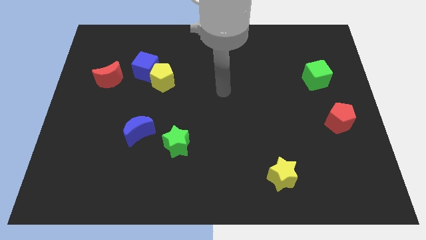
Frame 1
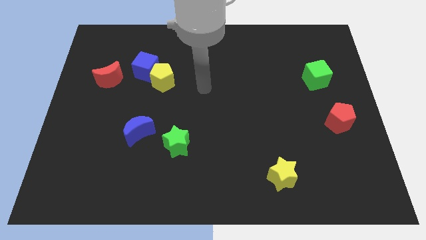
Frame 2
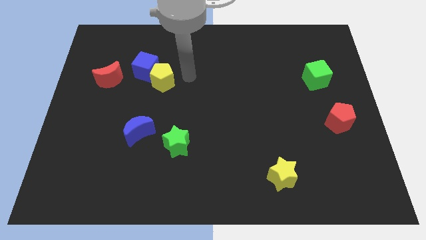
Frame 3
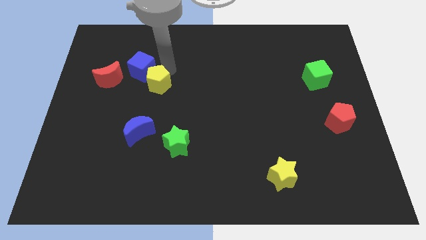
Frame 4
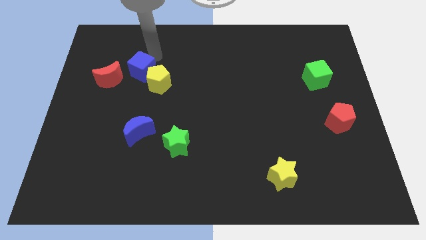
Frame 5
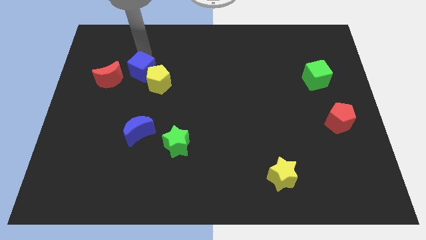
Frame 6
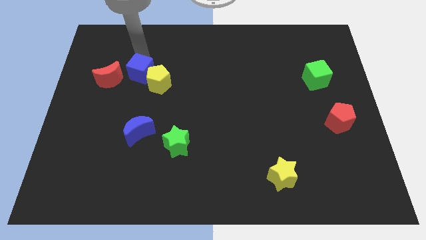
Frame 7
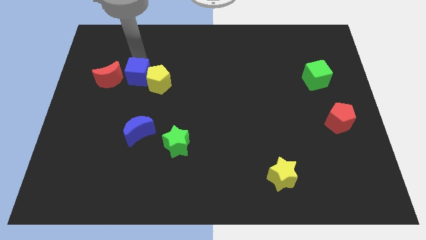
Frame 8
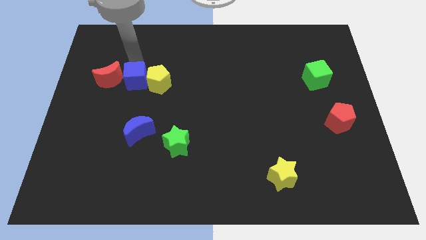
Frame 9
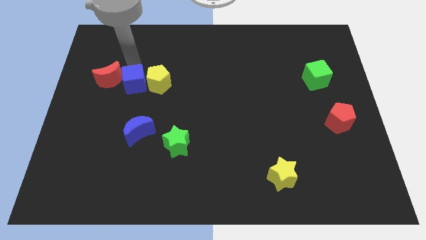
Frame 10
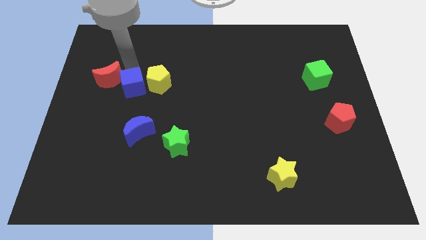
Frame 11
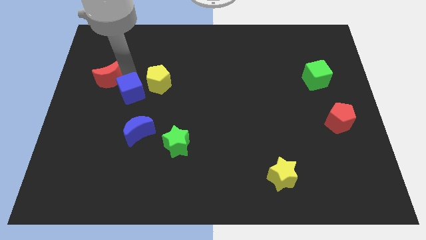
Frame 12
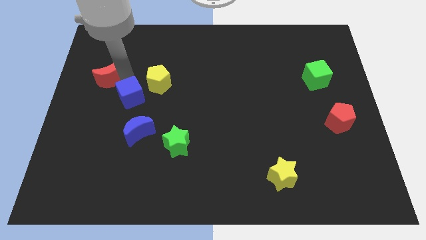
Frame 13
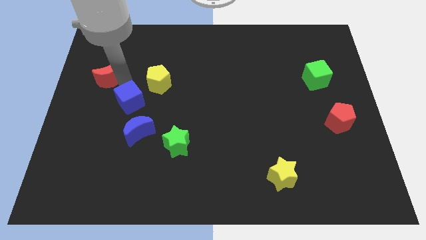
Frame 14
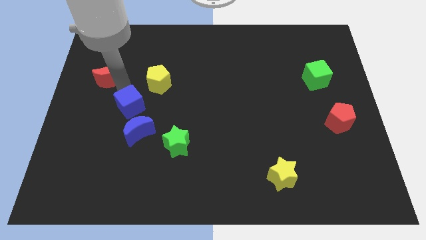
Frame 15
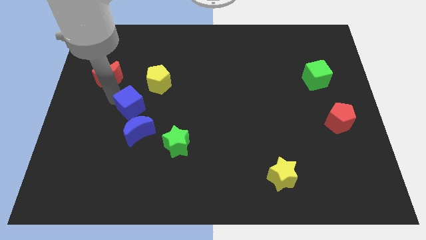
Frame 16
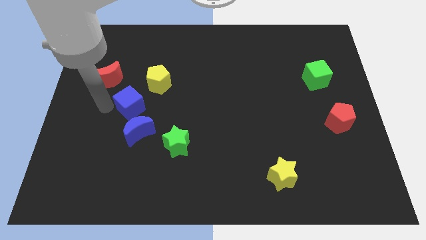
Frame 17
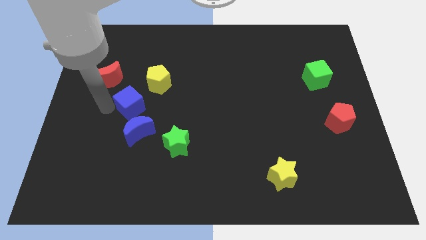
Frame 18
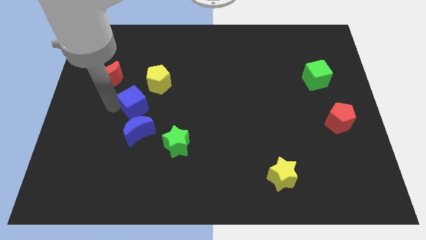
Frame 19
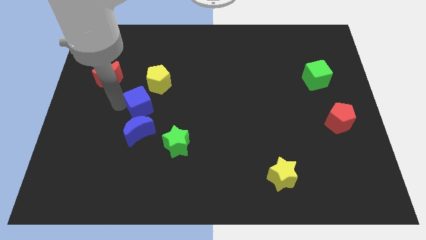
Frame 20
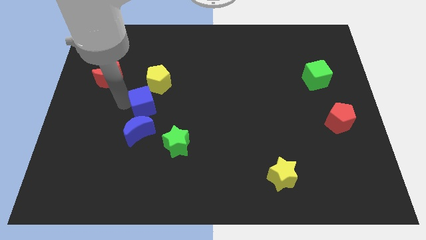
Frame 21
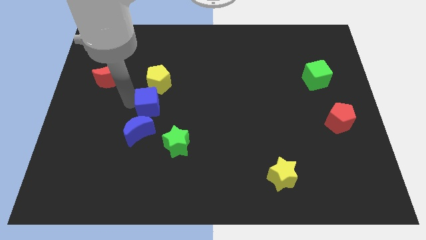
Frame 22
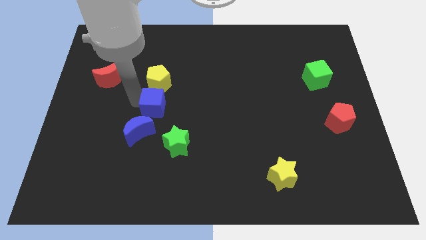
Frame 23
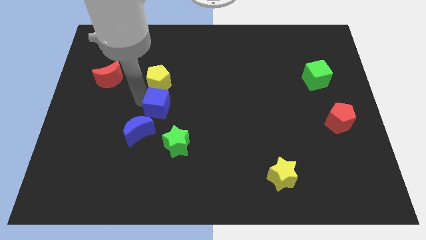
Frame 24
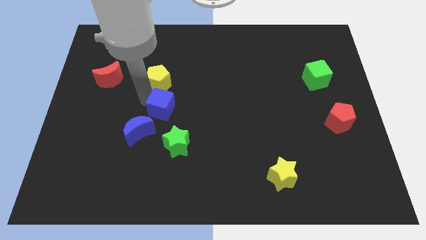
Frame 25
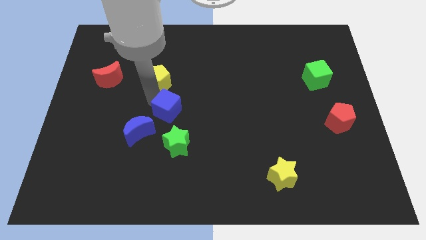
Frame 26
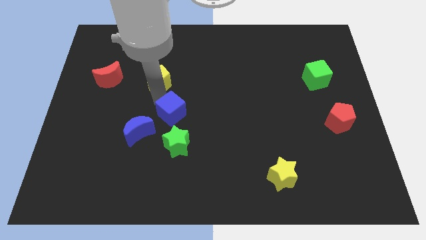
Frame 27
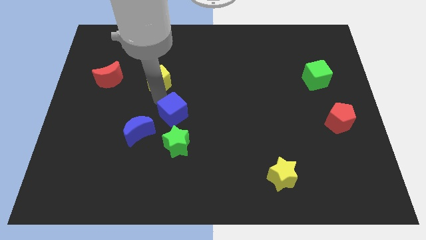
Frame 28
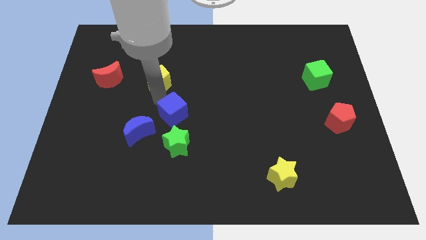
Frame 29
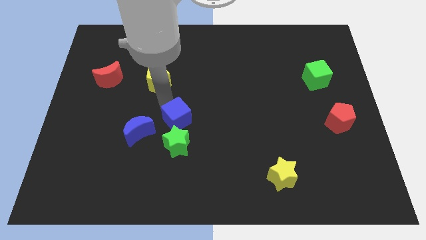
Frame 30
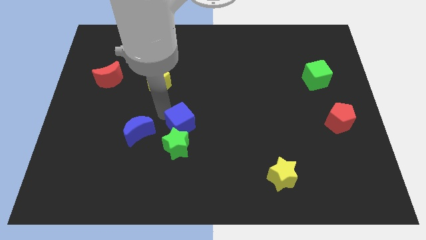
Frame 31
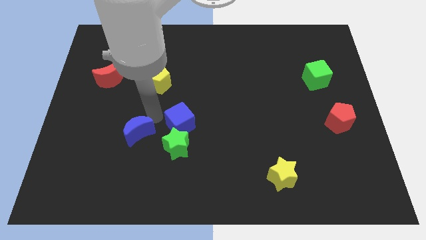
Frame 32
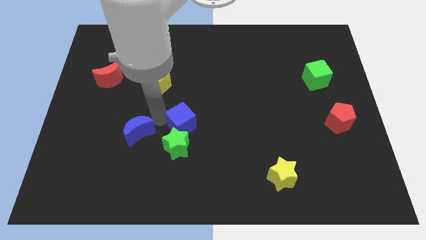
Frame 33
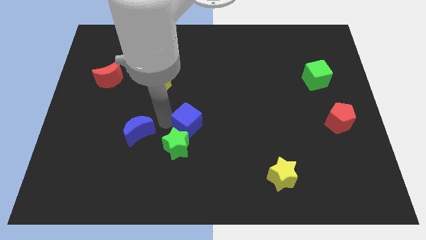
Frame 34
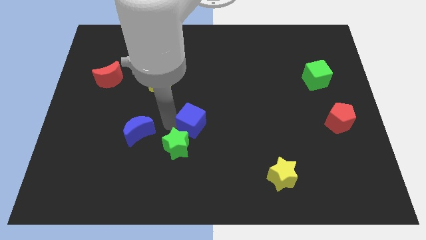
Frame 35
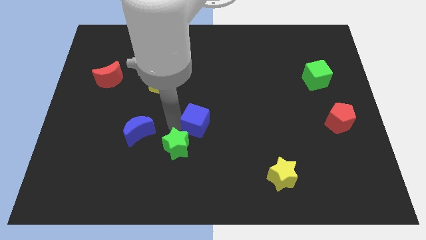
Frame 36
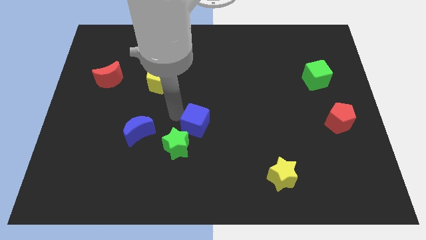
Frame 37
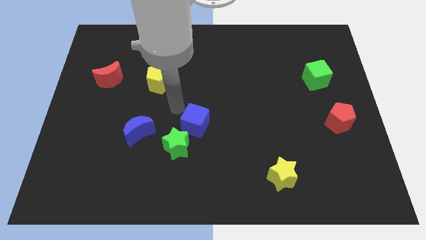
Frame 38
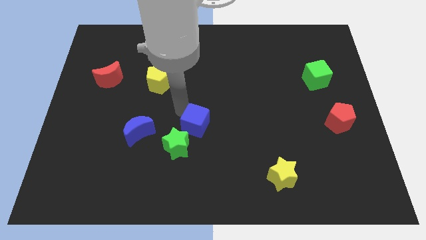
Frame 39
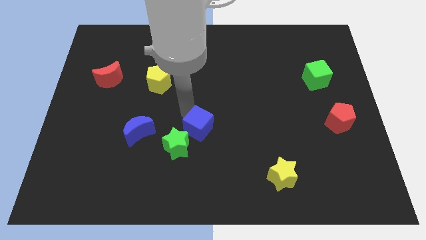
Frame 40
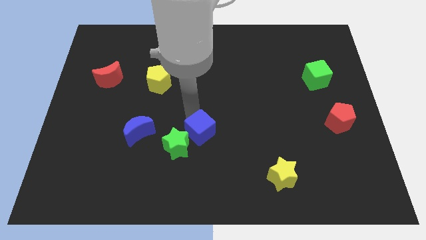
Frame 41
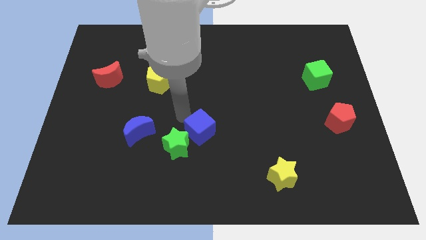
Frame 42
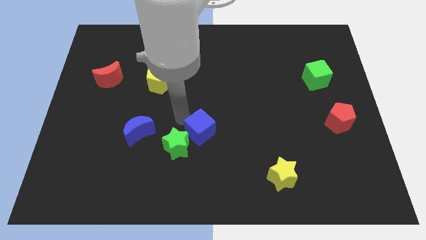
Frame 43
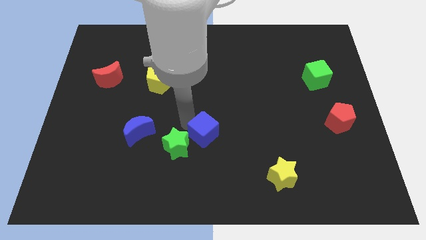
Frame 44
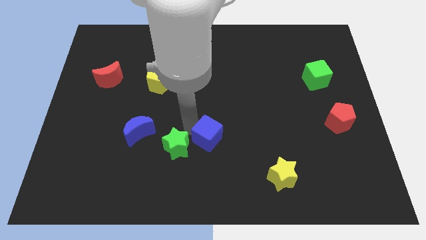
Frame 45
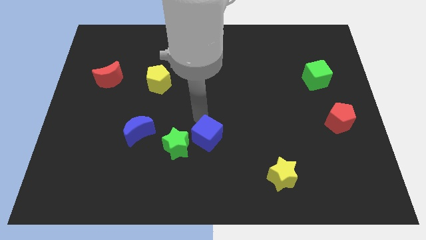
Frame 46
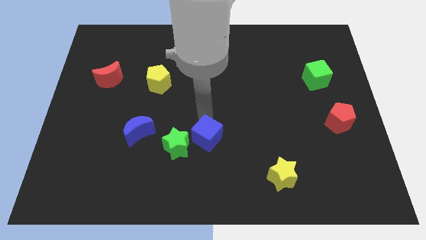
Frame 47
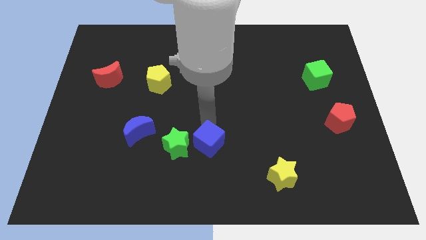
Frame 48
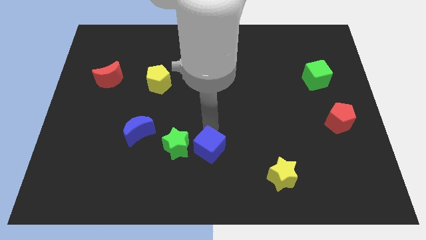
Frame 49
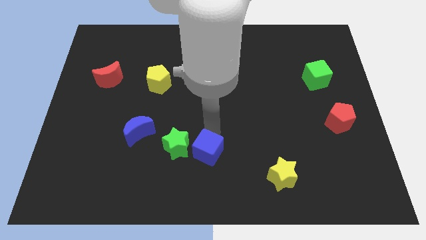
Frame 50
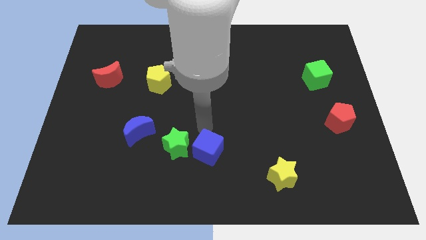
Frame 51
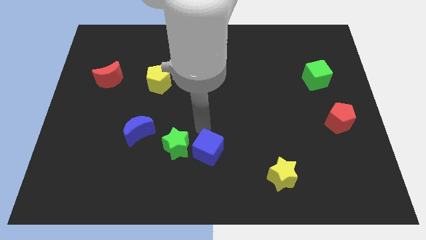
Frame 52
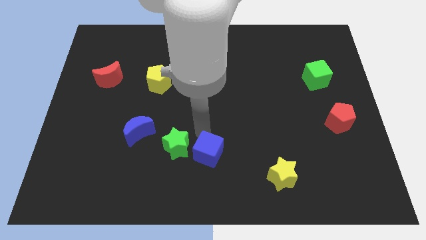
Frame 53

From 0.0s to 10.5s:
move the blue cube to the bottom side

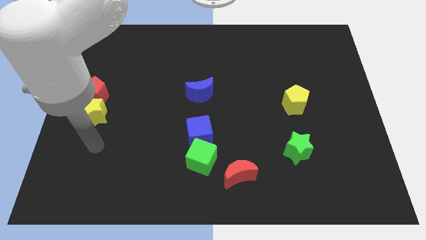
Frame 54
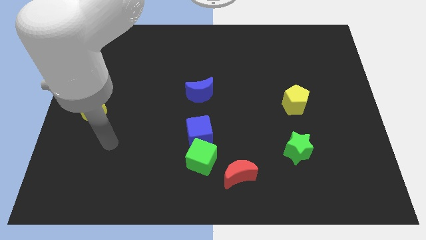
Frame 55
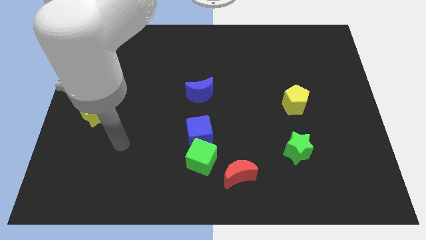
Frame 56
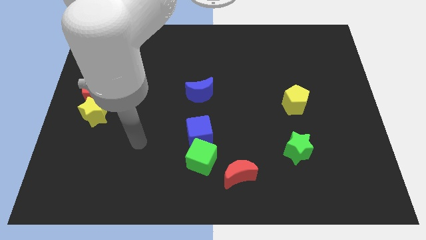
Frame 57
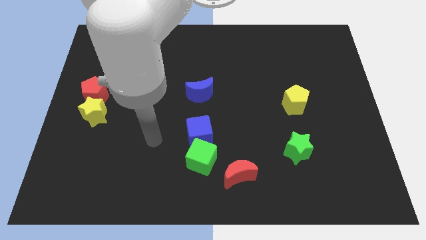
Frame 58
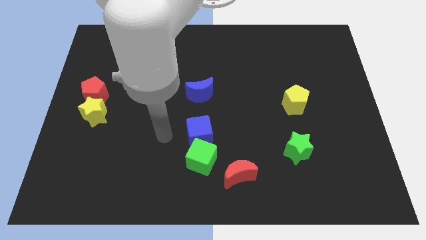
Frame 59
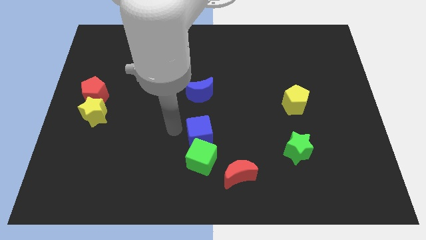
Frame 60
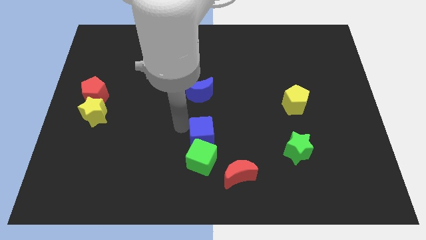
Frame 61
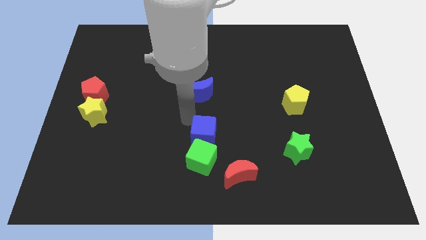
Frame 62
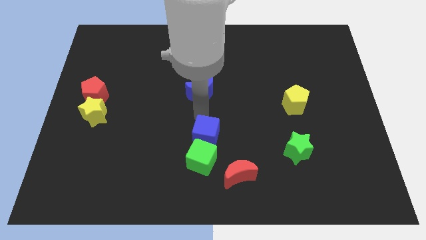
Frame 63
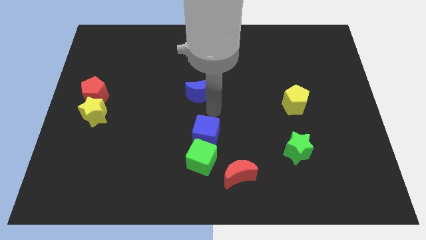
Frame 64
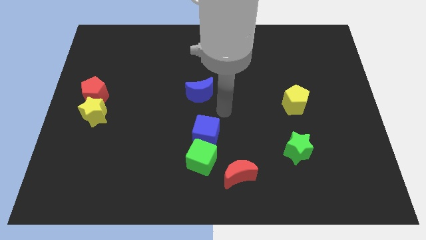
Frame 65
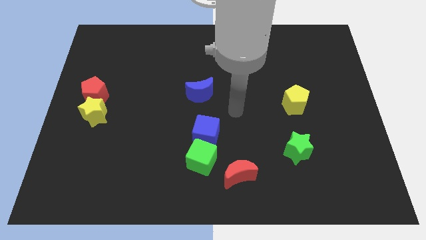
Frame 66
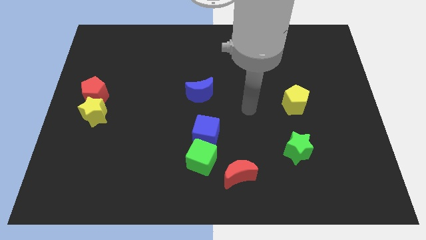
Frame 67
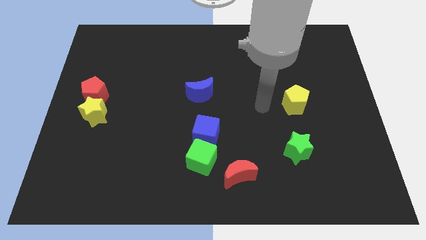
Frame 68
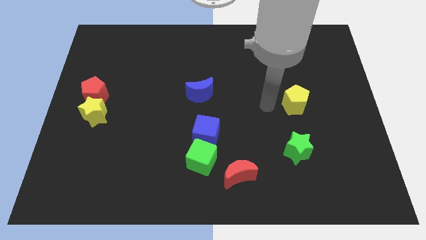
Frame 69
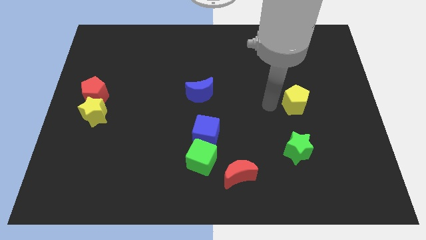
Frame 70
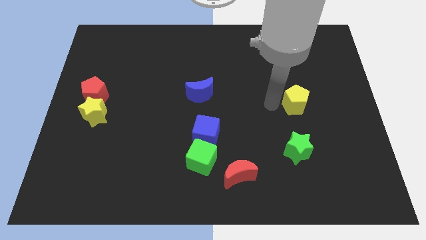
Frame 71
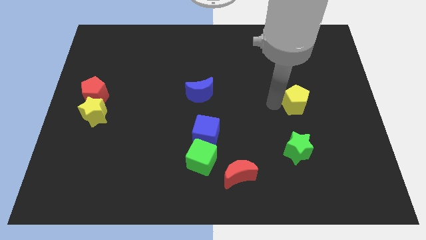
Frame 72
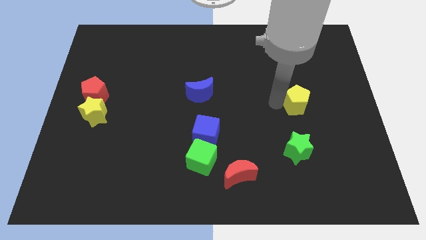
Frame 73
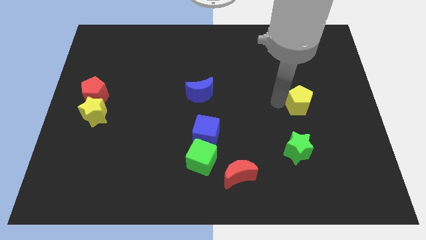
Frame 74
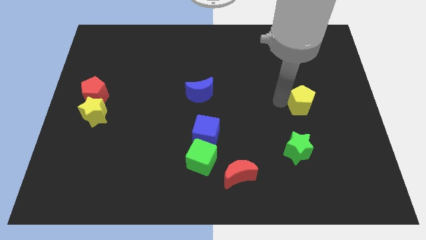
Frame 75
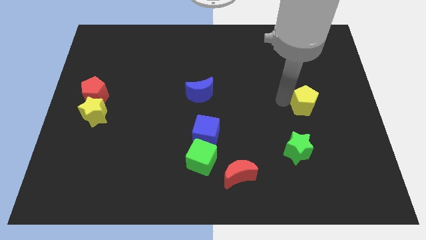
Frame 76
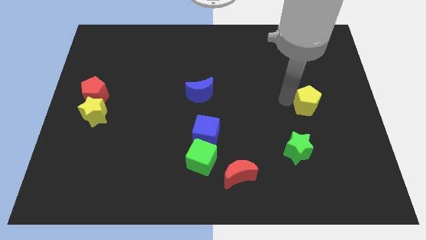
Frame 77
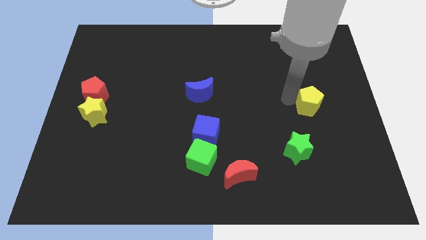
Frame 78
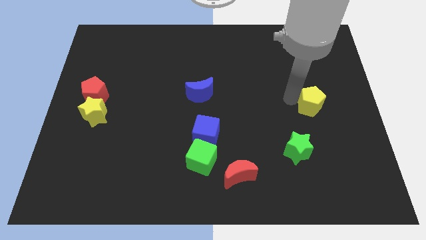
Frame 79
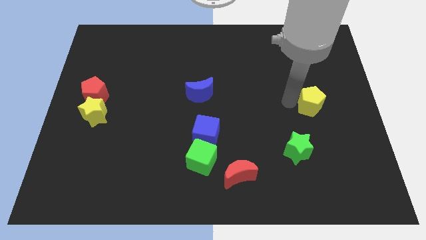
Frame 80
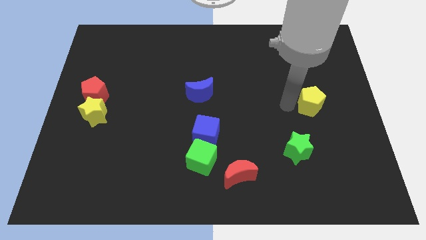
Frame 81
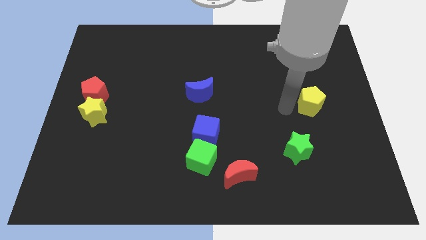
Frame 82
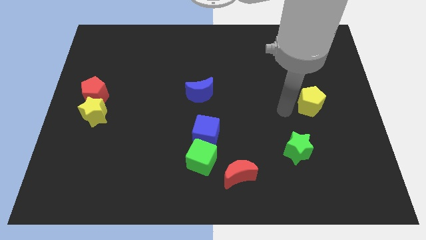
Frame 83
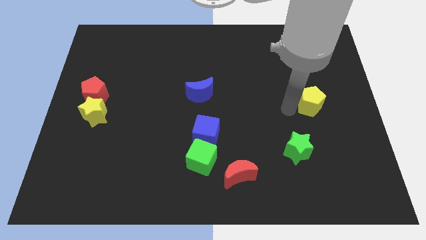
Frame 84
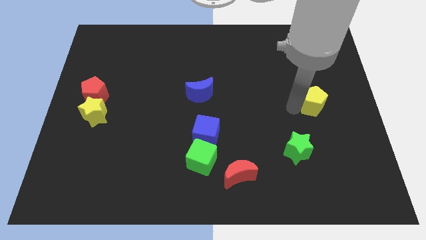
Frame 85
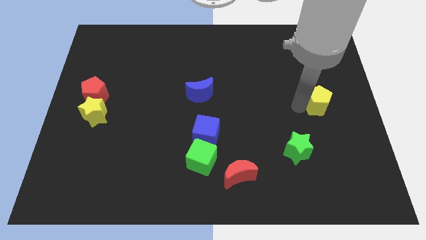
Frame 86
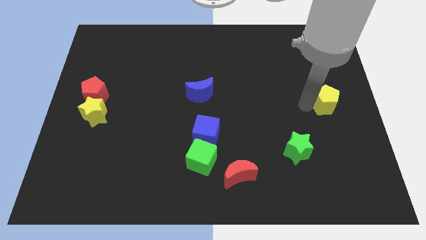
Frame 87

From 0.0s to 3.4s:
push the yellow pentagon to the right side of the board
